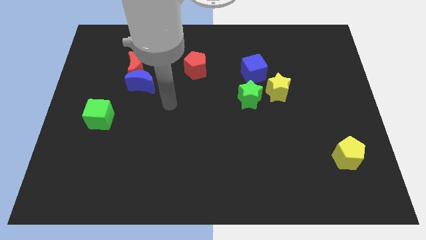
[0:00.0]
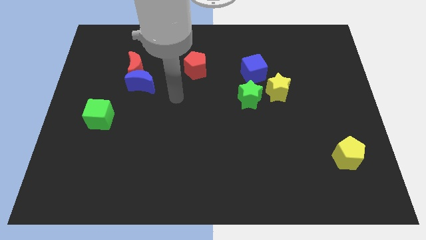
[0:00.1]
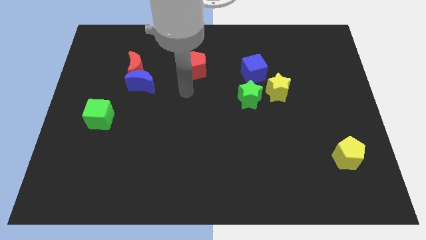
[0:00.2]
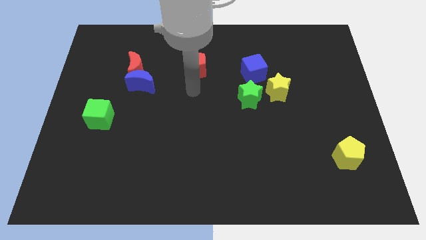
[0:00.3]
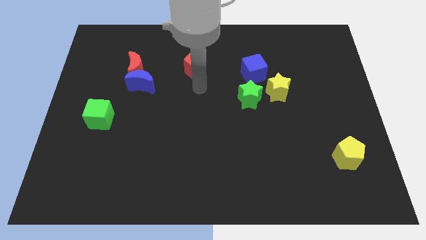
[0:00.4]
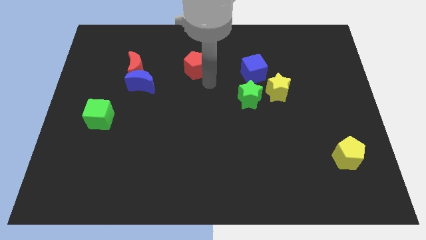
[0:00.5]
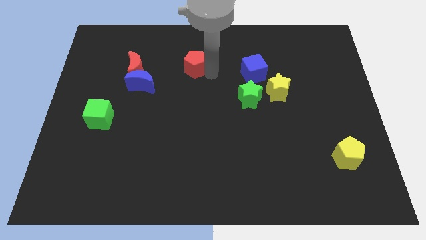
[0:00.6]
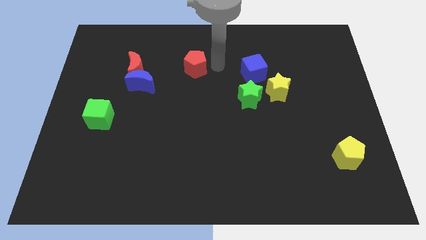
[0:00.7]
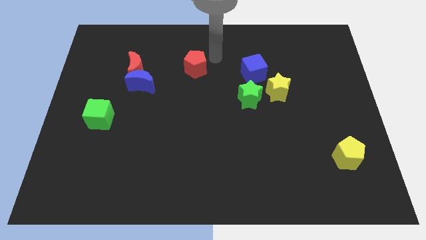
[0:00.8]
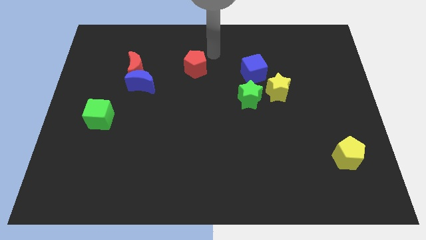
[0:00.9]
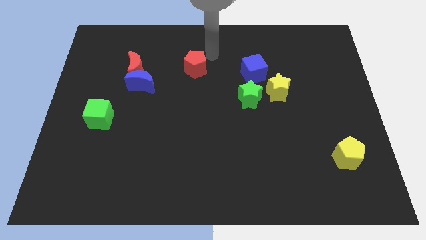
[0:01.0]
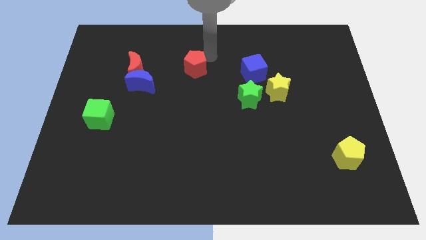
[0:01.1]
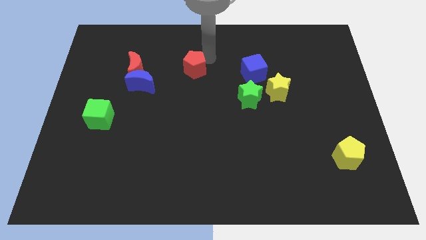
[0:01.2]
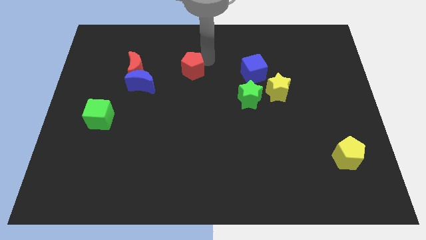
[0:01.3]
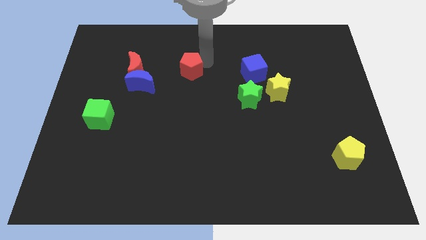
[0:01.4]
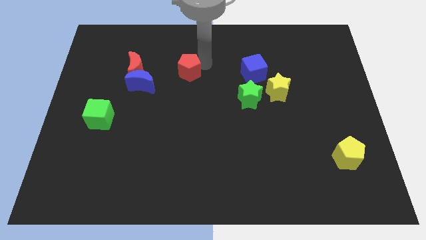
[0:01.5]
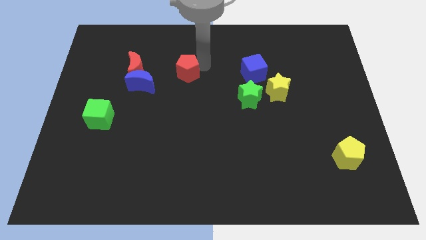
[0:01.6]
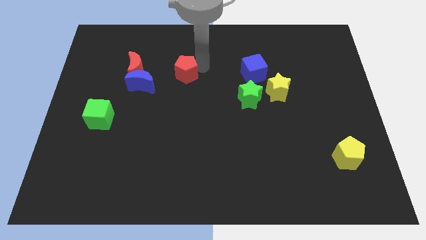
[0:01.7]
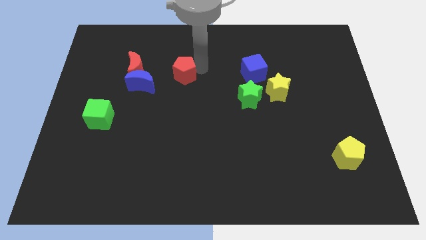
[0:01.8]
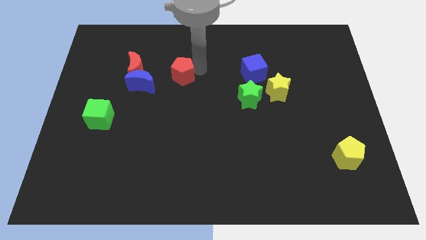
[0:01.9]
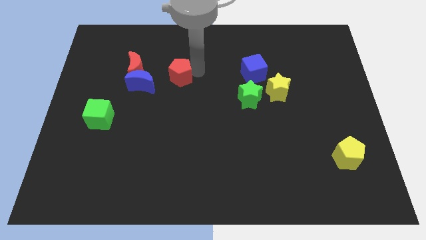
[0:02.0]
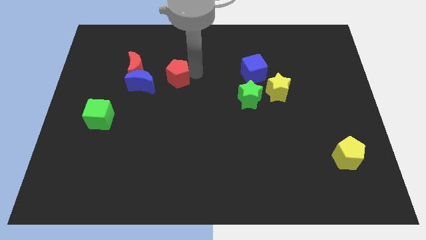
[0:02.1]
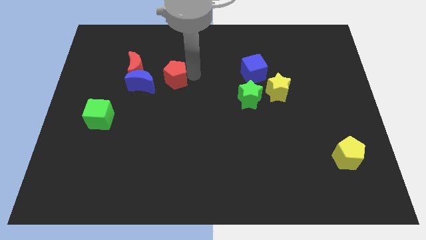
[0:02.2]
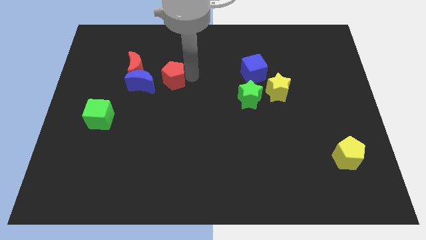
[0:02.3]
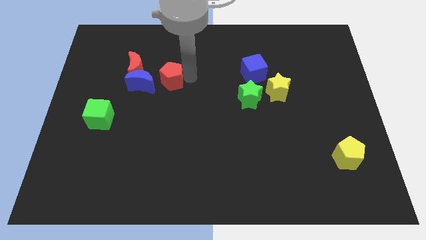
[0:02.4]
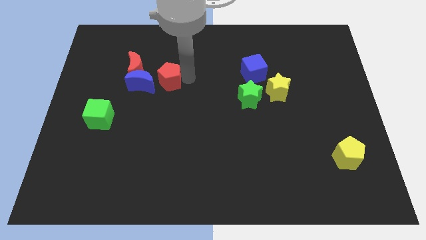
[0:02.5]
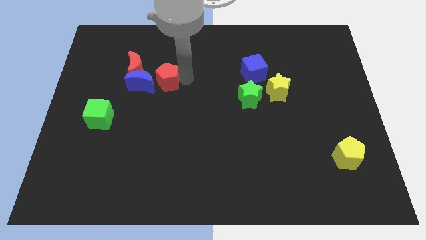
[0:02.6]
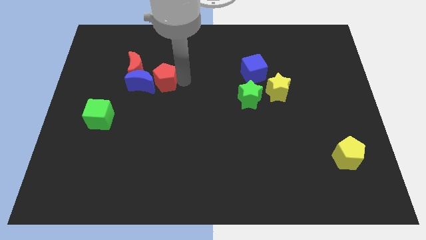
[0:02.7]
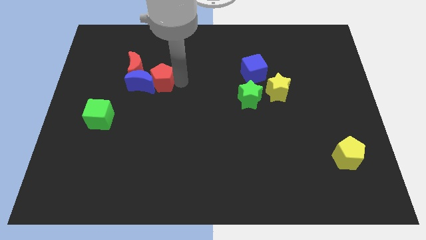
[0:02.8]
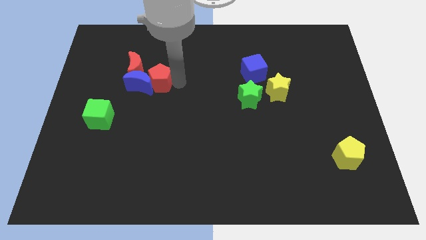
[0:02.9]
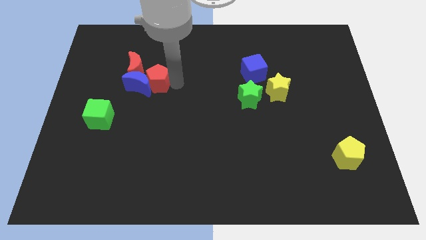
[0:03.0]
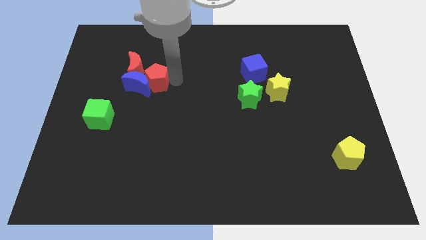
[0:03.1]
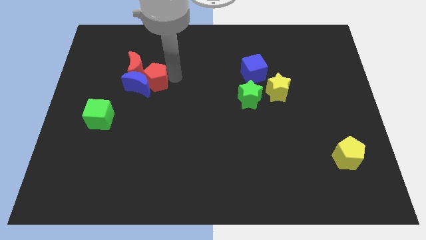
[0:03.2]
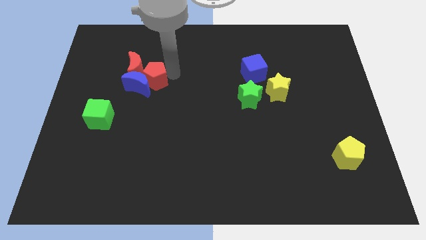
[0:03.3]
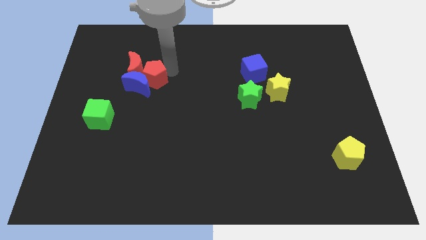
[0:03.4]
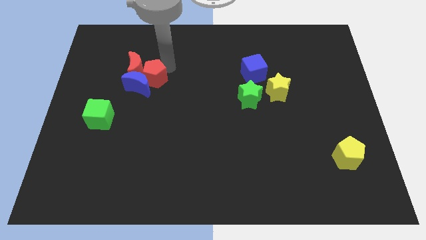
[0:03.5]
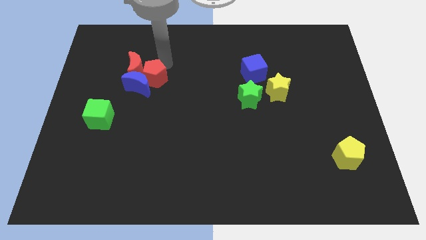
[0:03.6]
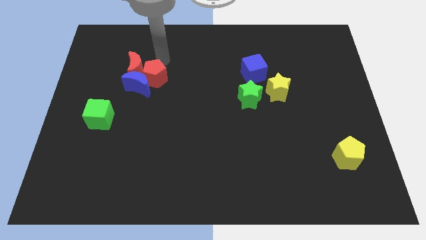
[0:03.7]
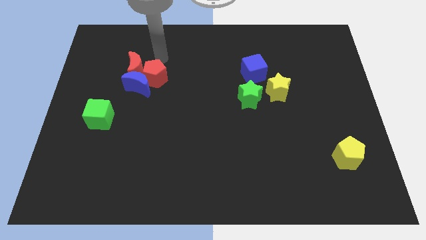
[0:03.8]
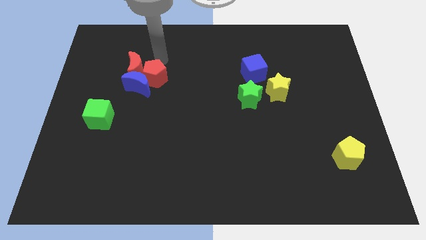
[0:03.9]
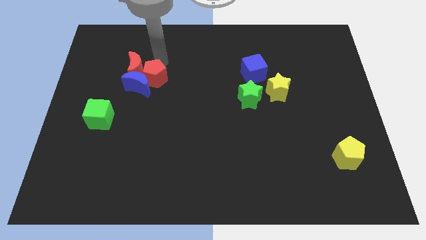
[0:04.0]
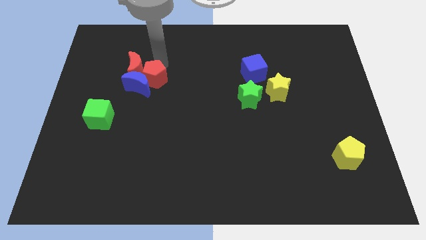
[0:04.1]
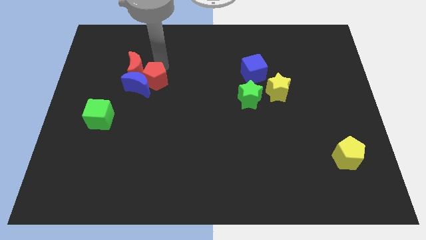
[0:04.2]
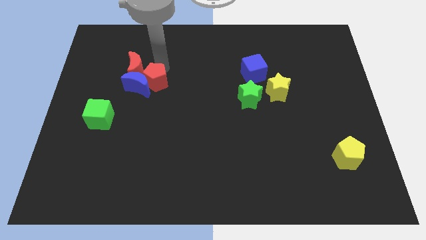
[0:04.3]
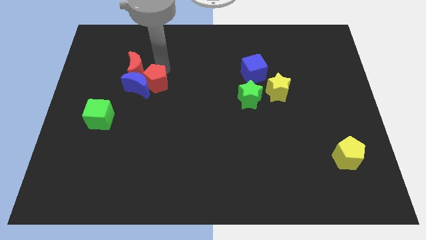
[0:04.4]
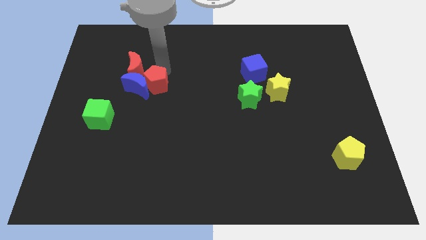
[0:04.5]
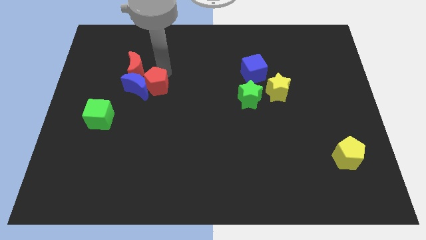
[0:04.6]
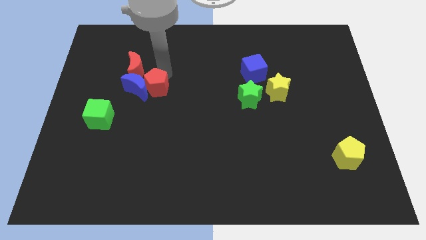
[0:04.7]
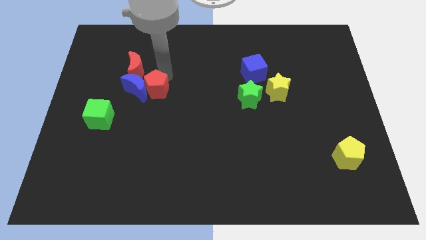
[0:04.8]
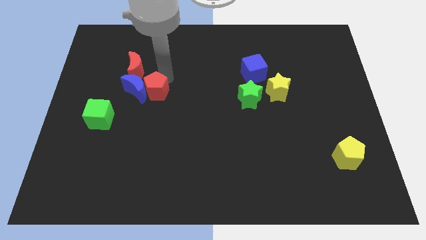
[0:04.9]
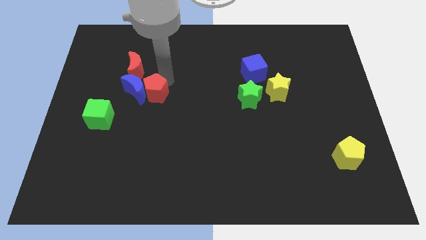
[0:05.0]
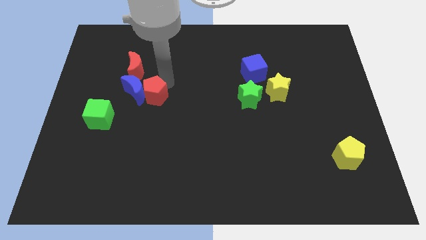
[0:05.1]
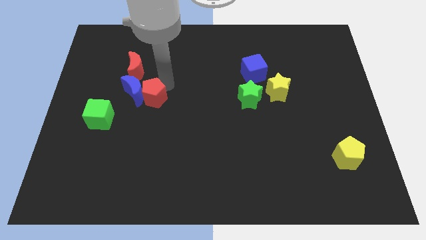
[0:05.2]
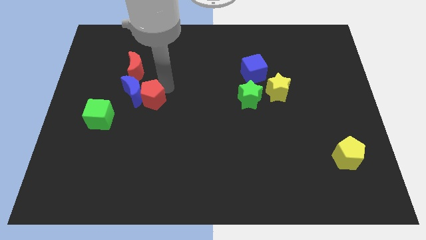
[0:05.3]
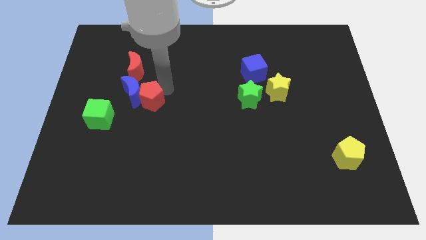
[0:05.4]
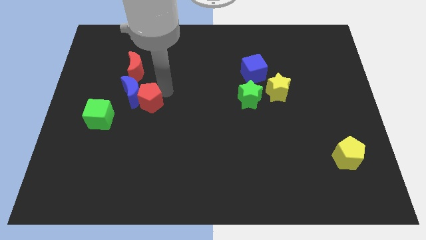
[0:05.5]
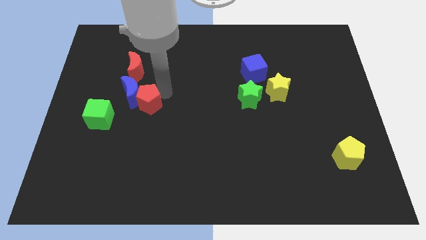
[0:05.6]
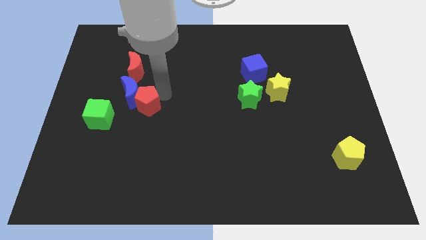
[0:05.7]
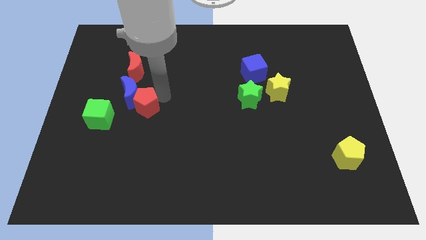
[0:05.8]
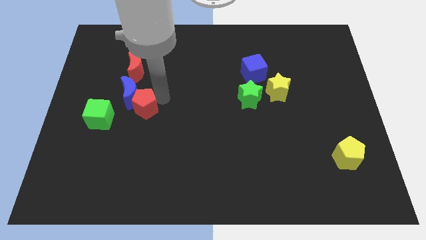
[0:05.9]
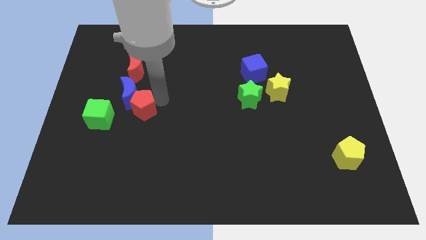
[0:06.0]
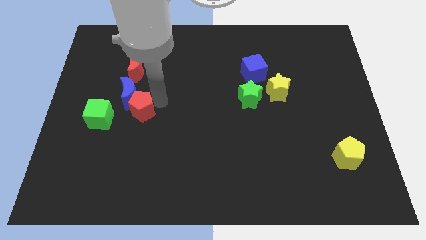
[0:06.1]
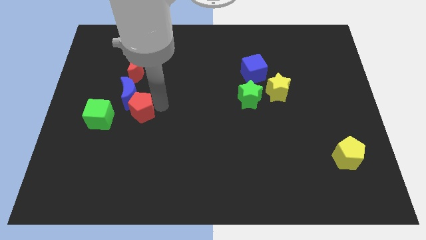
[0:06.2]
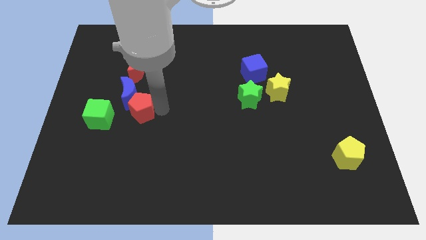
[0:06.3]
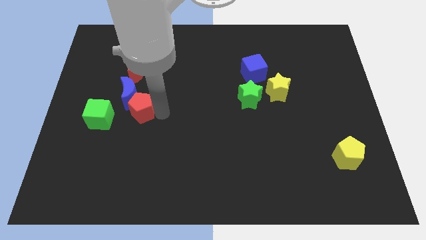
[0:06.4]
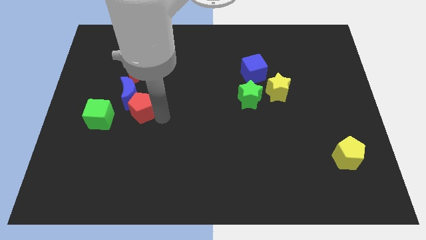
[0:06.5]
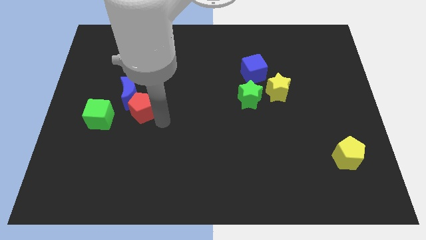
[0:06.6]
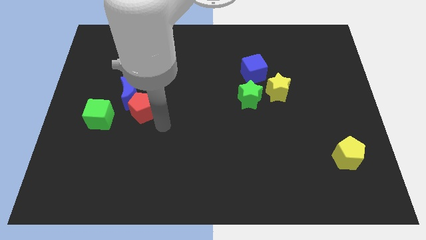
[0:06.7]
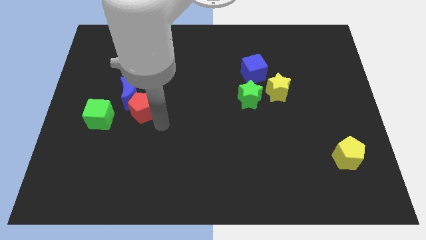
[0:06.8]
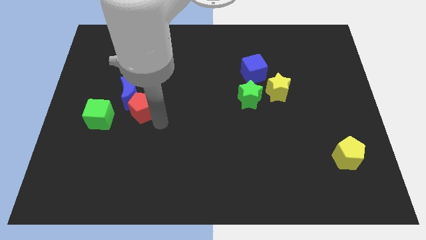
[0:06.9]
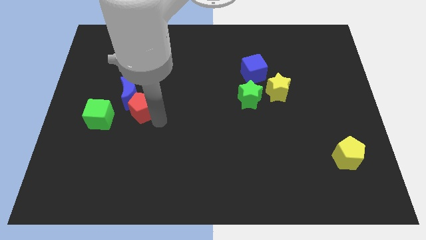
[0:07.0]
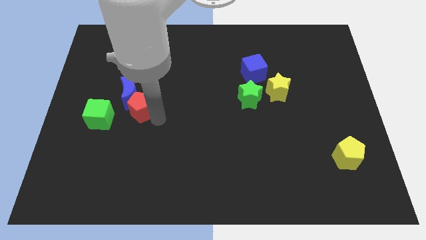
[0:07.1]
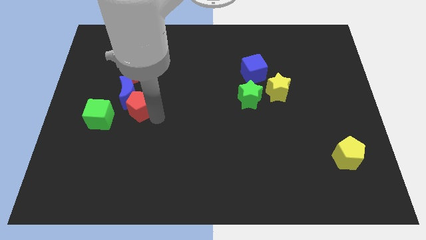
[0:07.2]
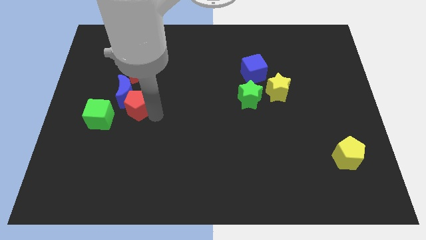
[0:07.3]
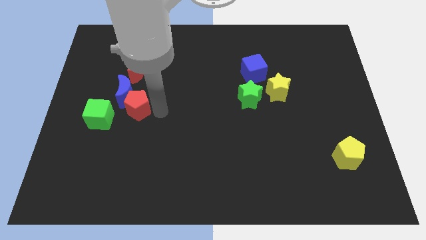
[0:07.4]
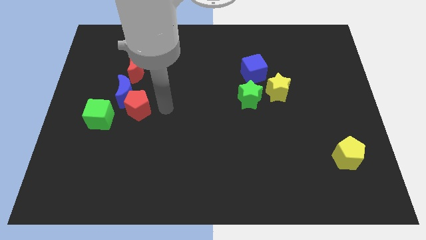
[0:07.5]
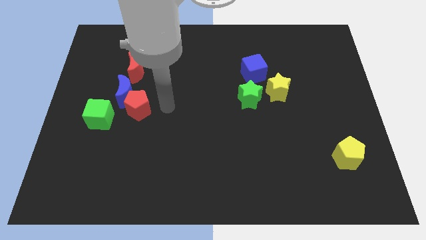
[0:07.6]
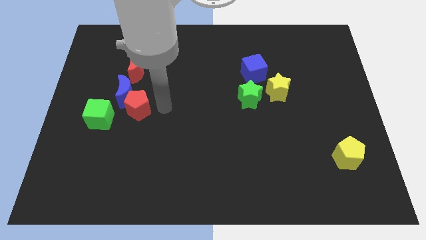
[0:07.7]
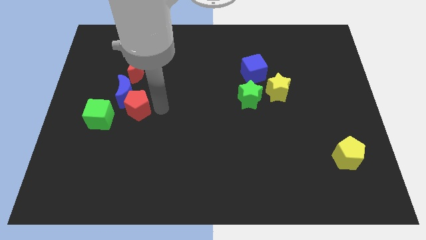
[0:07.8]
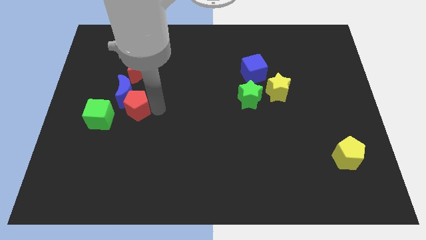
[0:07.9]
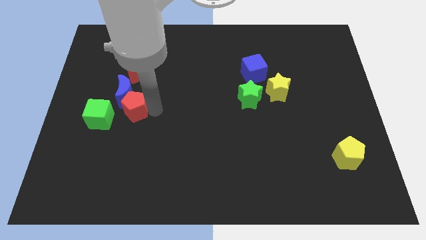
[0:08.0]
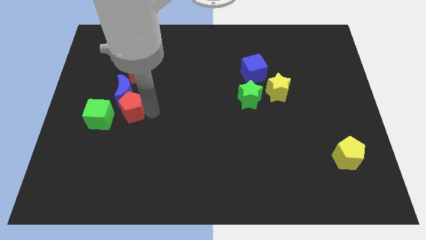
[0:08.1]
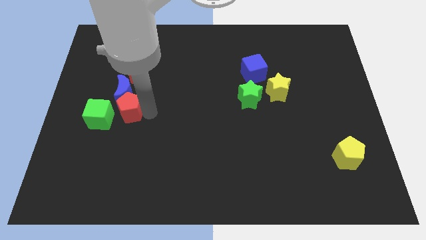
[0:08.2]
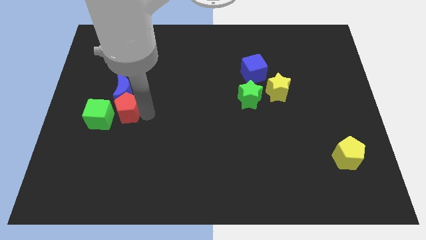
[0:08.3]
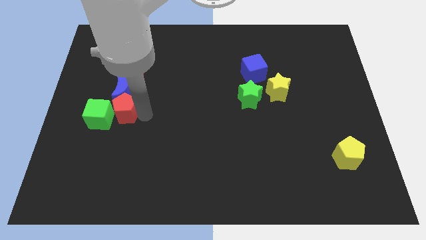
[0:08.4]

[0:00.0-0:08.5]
put the red pentagon towards the green cube
